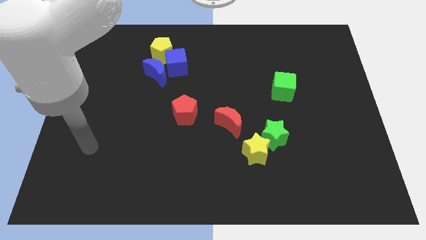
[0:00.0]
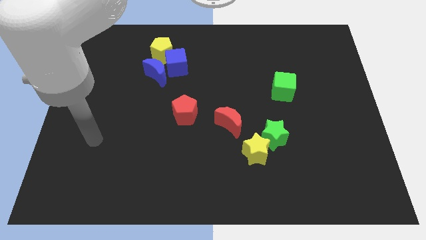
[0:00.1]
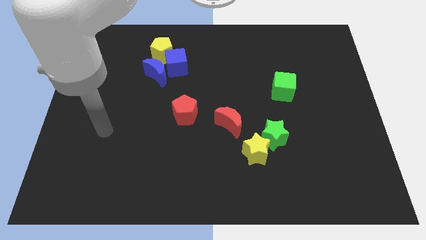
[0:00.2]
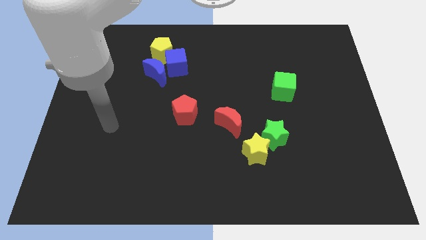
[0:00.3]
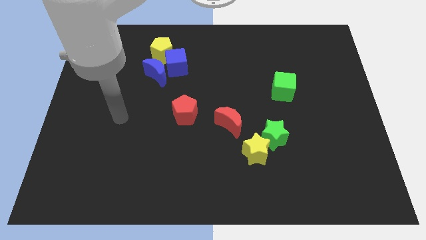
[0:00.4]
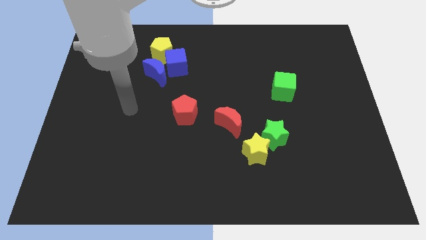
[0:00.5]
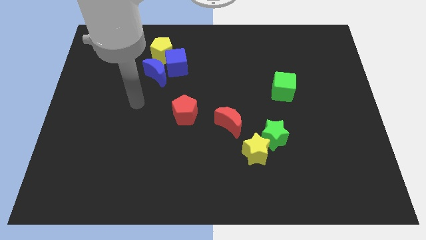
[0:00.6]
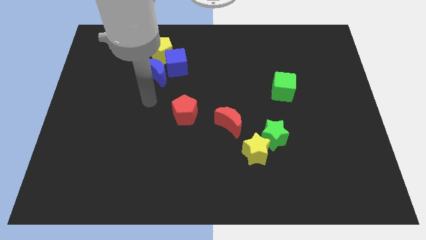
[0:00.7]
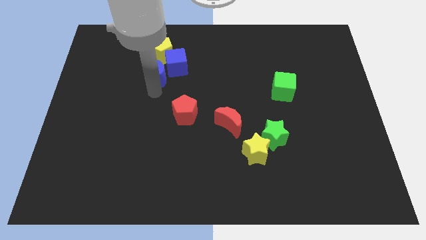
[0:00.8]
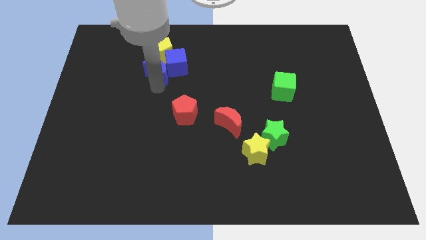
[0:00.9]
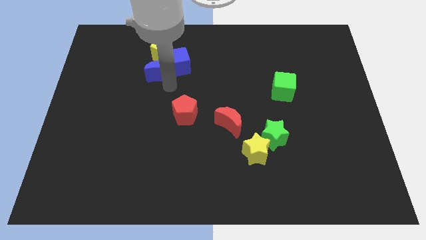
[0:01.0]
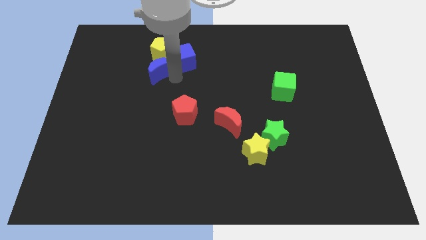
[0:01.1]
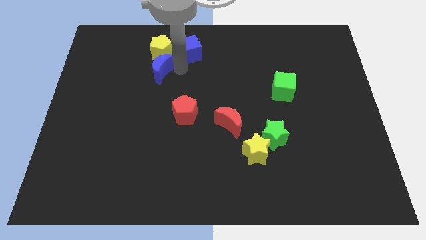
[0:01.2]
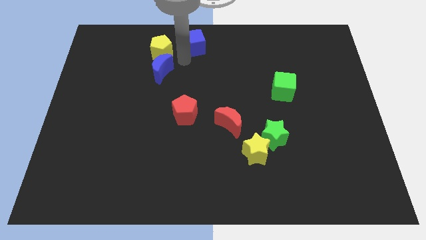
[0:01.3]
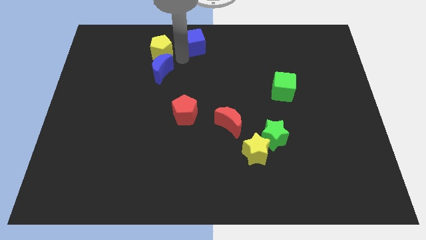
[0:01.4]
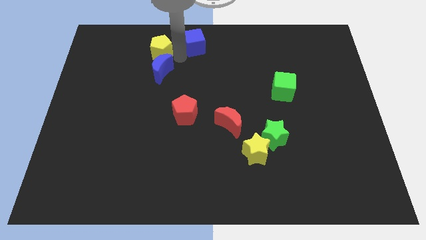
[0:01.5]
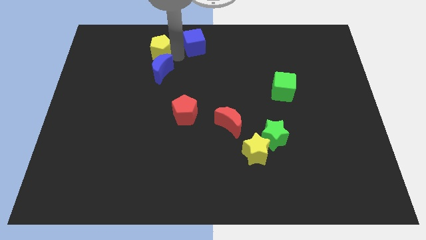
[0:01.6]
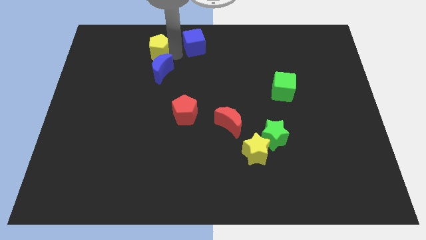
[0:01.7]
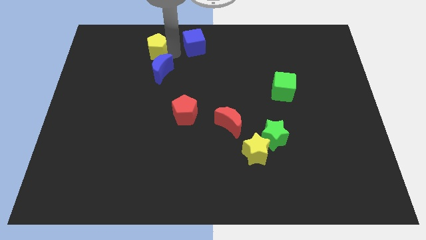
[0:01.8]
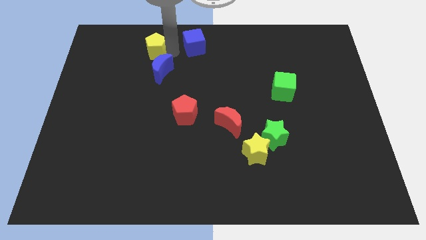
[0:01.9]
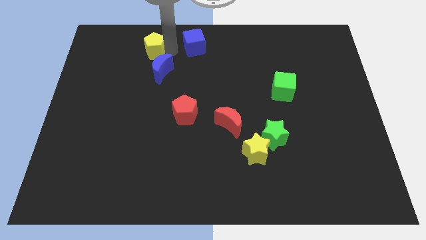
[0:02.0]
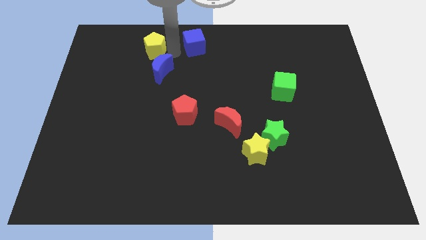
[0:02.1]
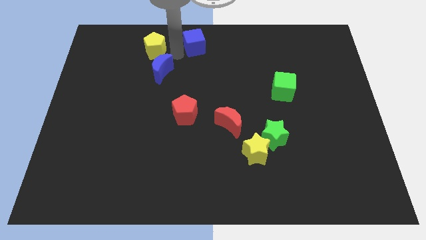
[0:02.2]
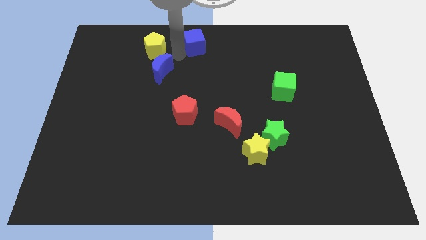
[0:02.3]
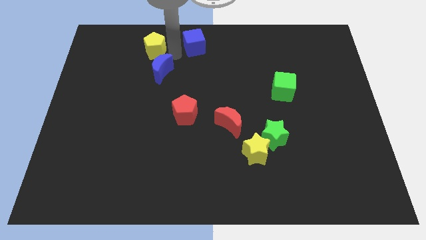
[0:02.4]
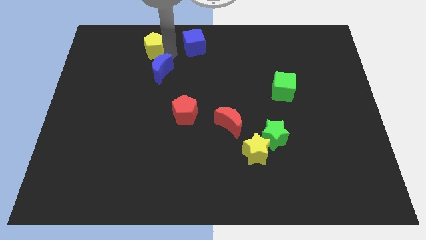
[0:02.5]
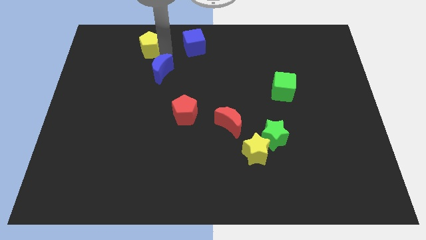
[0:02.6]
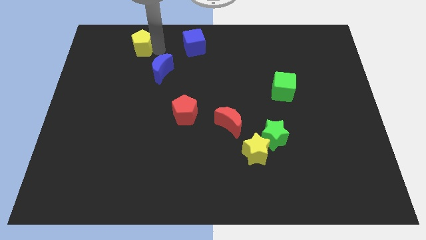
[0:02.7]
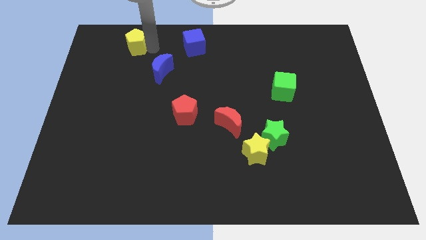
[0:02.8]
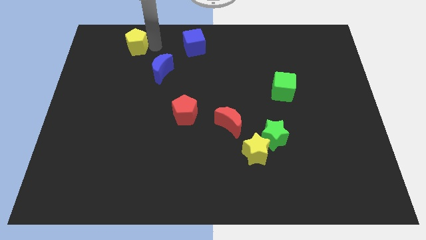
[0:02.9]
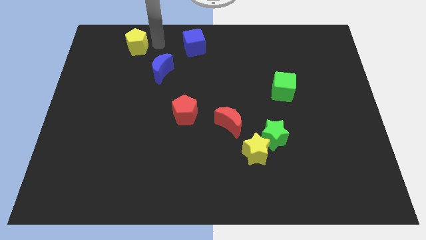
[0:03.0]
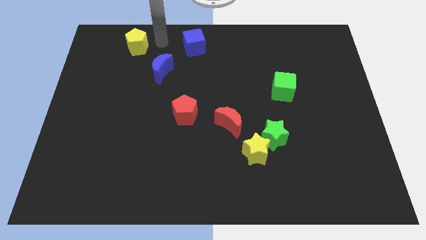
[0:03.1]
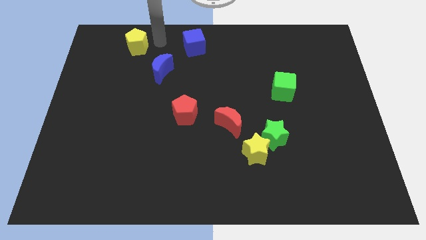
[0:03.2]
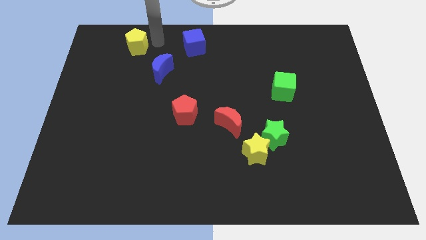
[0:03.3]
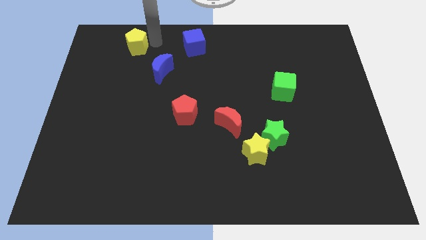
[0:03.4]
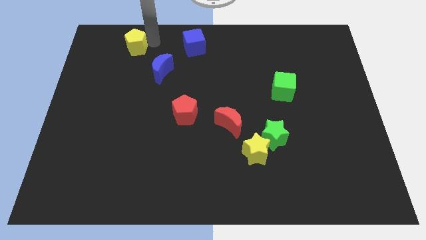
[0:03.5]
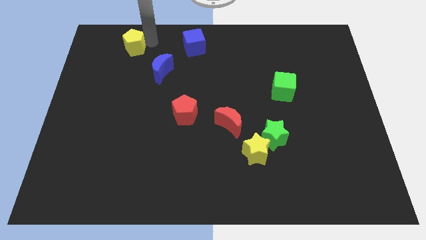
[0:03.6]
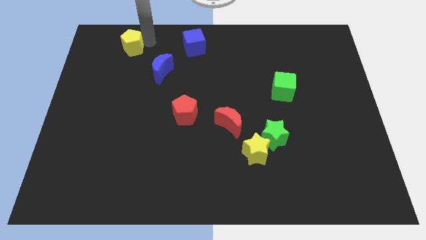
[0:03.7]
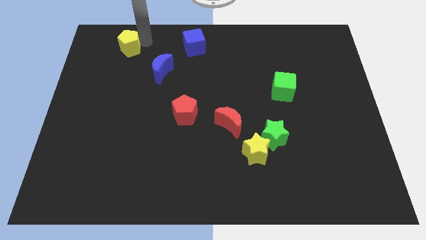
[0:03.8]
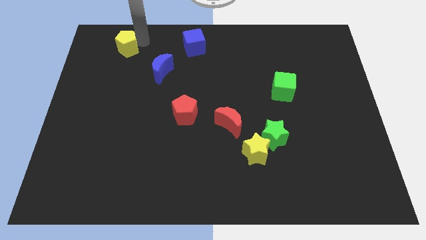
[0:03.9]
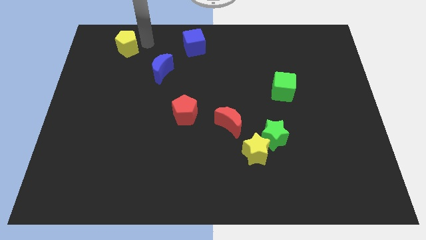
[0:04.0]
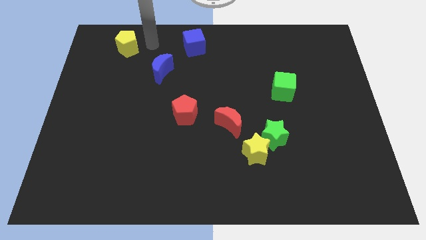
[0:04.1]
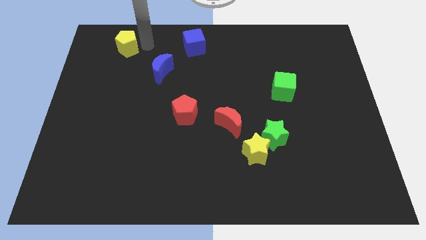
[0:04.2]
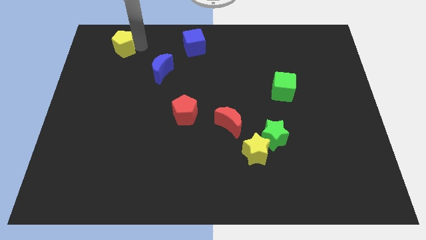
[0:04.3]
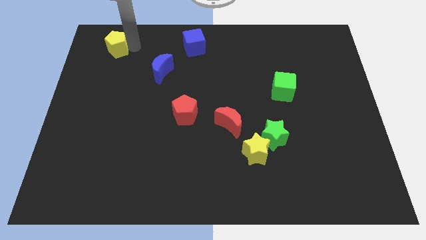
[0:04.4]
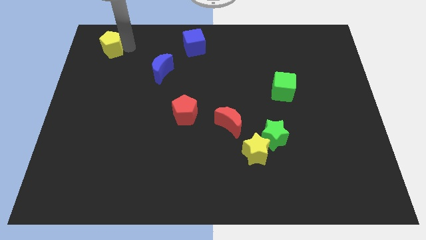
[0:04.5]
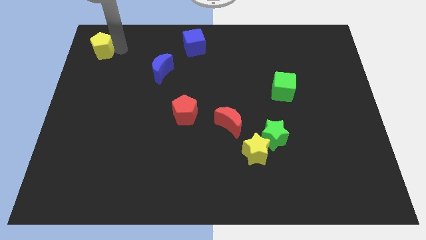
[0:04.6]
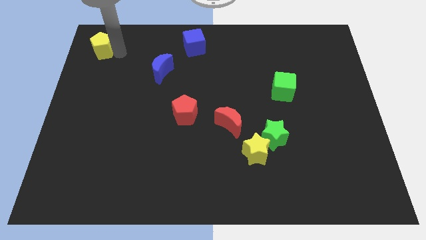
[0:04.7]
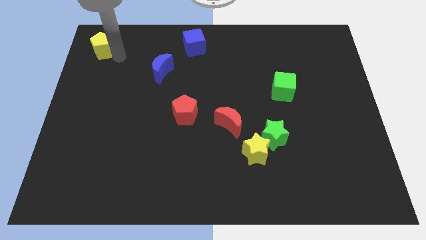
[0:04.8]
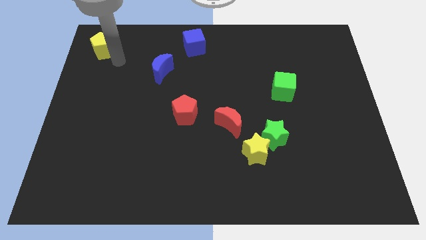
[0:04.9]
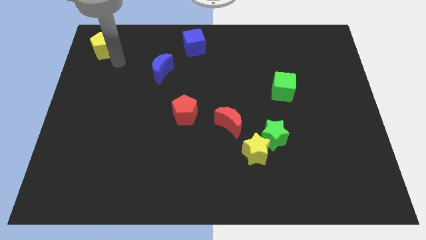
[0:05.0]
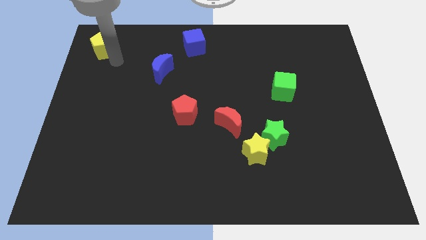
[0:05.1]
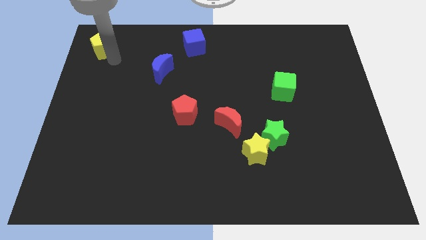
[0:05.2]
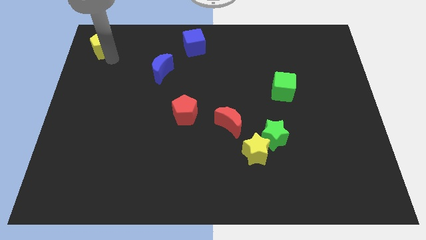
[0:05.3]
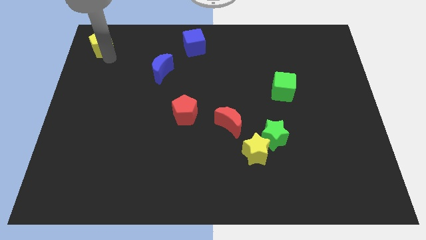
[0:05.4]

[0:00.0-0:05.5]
slide the yellow pentagon to the top left corner

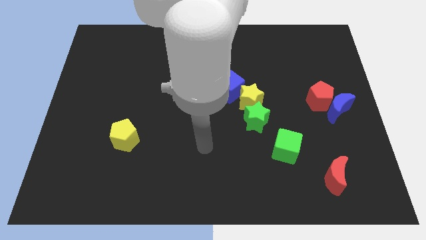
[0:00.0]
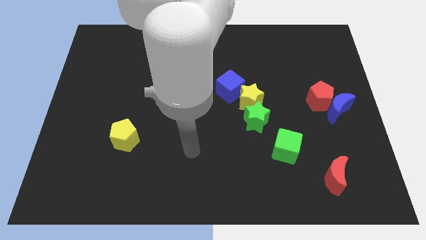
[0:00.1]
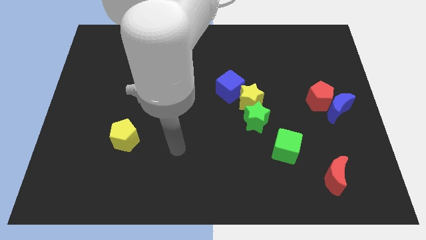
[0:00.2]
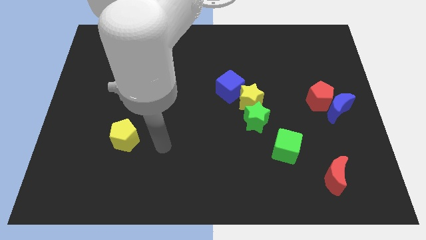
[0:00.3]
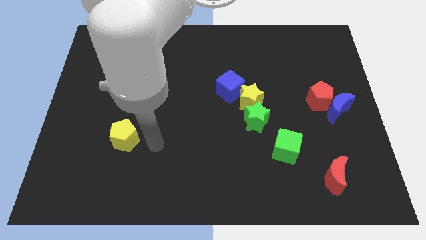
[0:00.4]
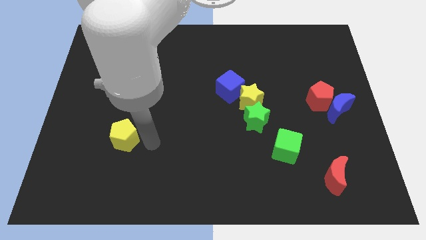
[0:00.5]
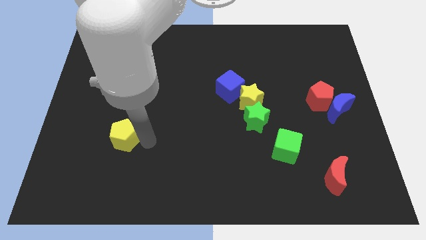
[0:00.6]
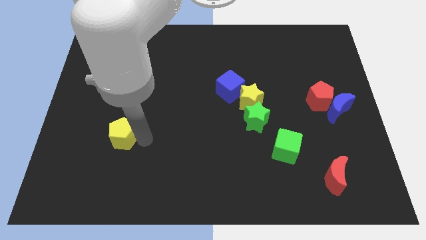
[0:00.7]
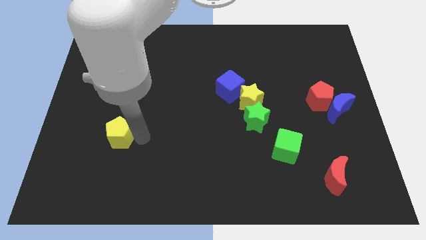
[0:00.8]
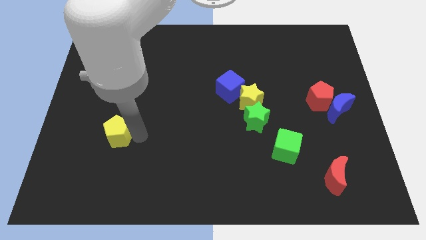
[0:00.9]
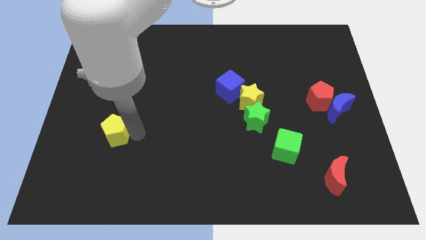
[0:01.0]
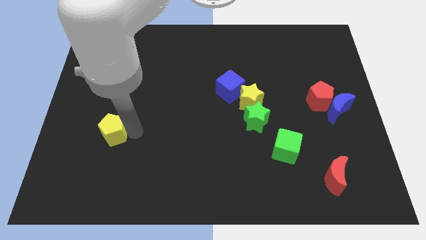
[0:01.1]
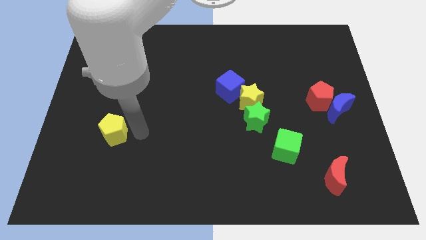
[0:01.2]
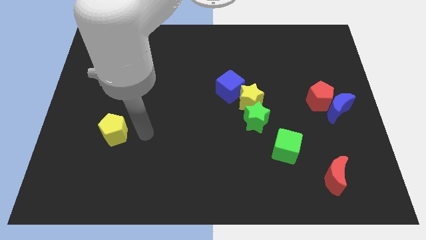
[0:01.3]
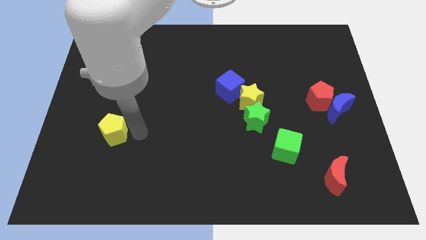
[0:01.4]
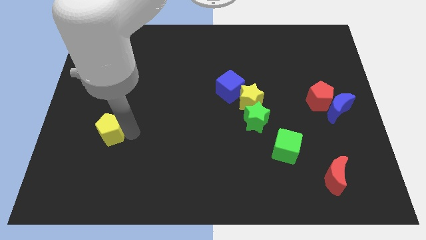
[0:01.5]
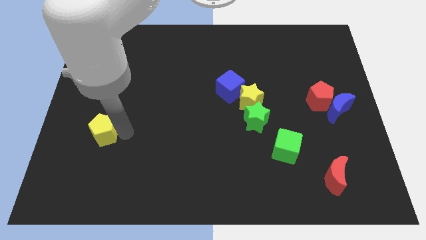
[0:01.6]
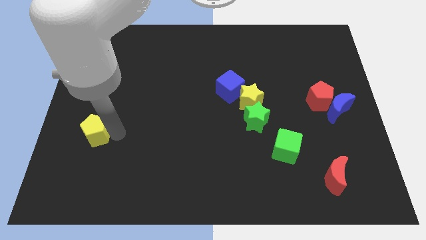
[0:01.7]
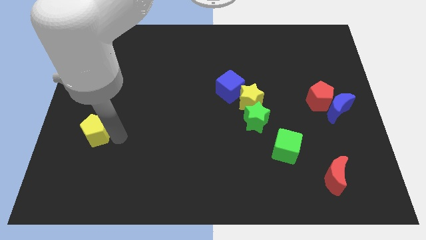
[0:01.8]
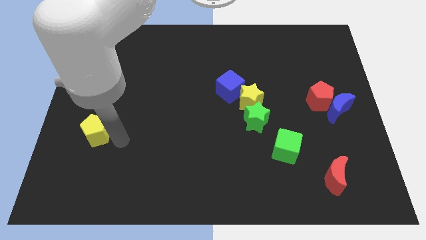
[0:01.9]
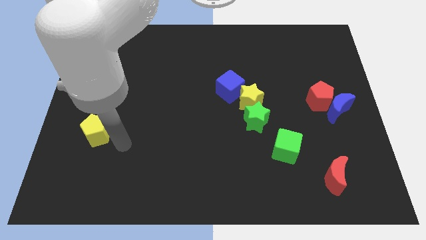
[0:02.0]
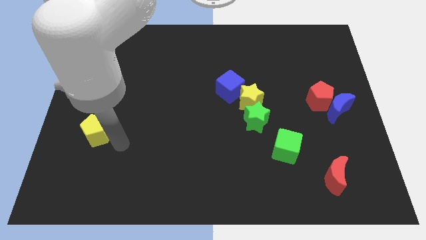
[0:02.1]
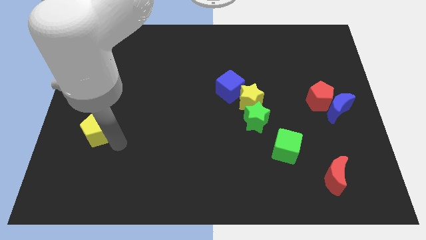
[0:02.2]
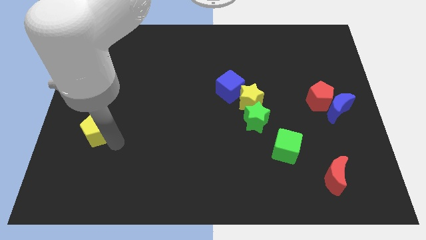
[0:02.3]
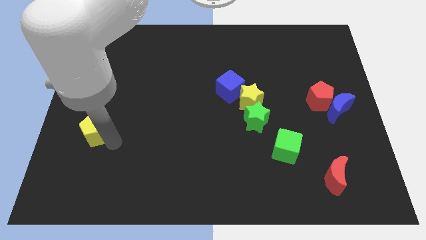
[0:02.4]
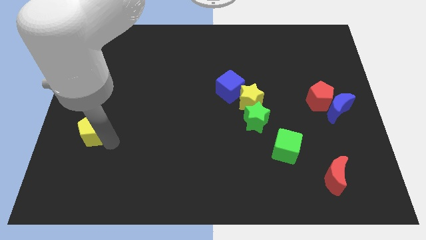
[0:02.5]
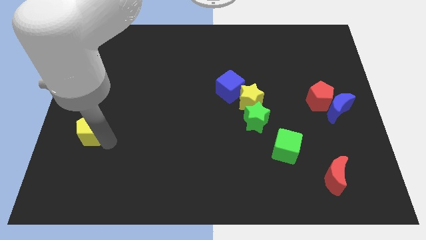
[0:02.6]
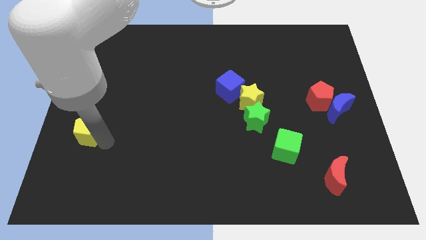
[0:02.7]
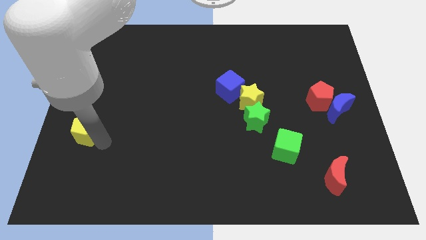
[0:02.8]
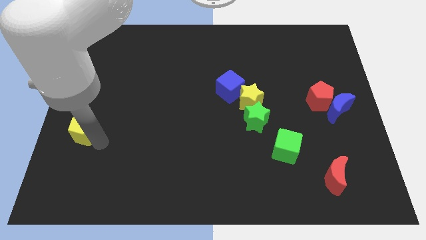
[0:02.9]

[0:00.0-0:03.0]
push the yellow pentagon to the left side of the board
